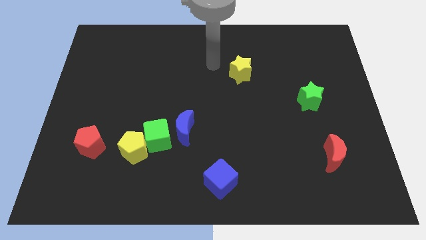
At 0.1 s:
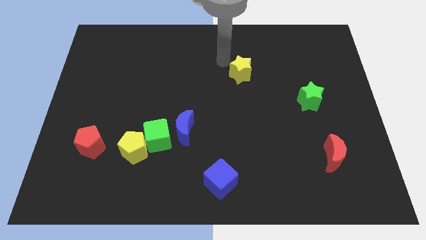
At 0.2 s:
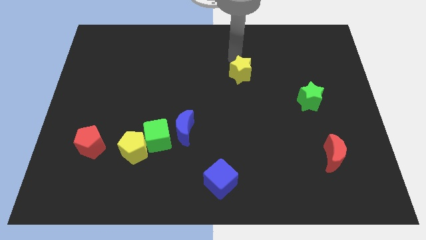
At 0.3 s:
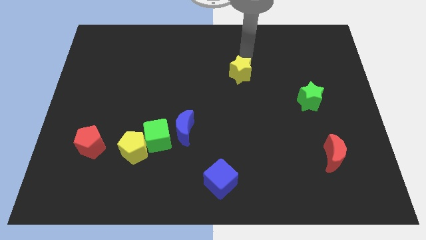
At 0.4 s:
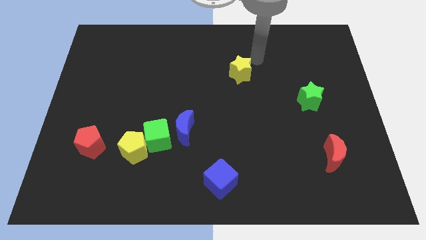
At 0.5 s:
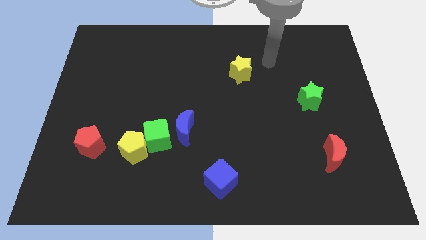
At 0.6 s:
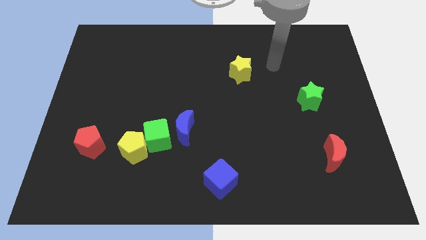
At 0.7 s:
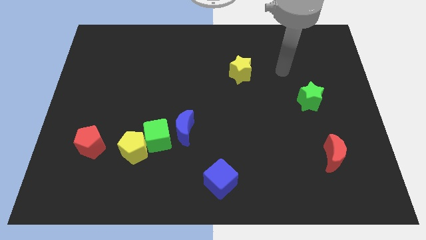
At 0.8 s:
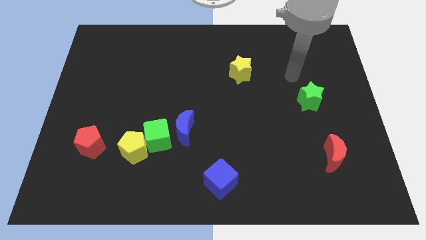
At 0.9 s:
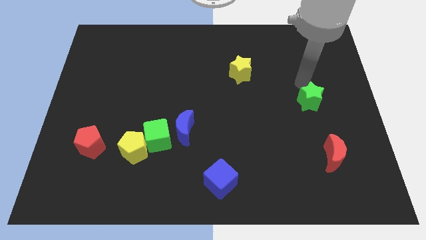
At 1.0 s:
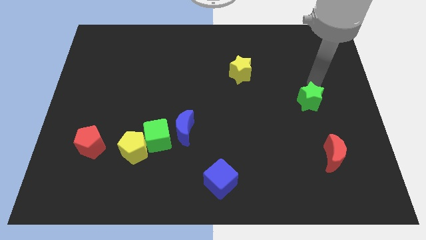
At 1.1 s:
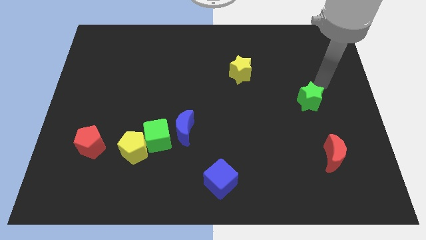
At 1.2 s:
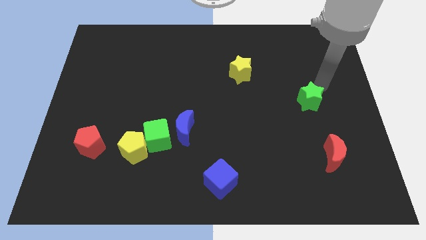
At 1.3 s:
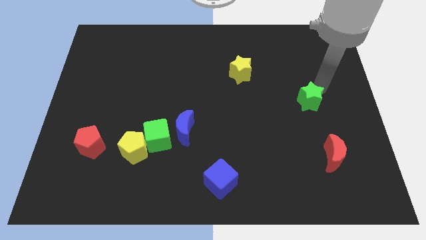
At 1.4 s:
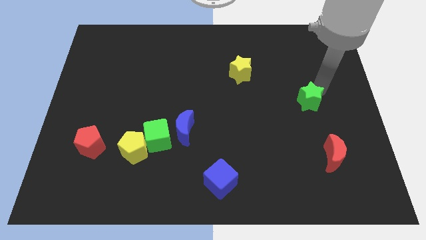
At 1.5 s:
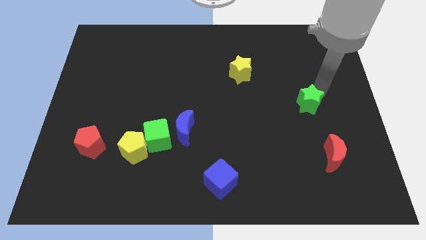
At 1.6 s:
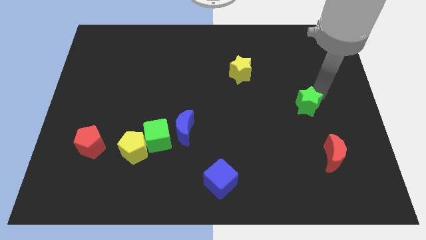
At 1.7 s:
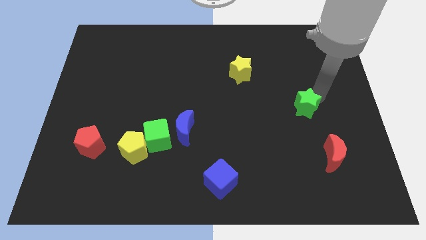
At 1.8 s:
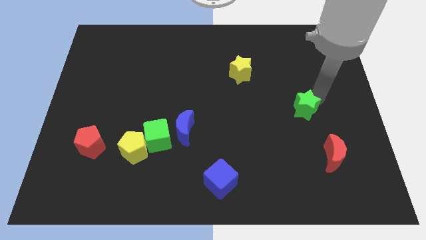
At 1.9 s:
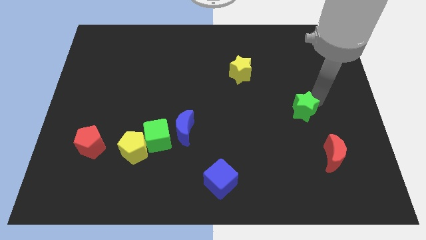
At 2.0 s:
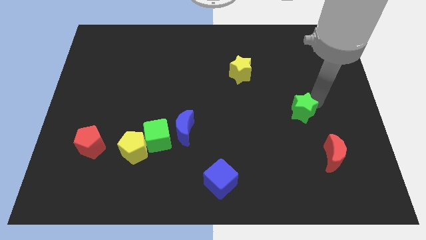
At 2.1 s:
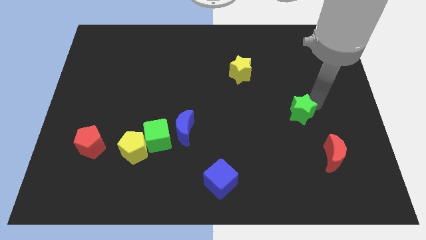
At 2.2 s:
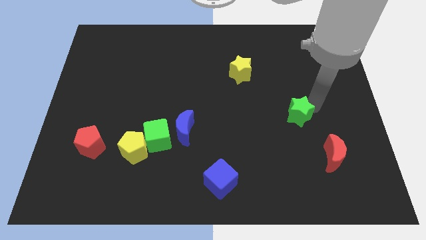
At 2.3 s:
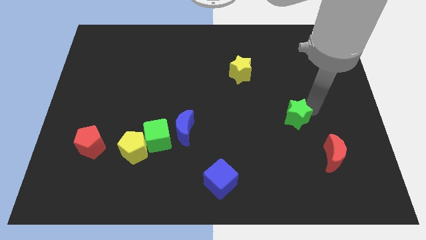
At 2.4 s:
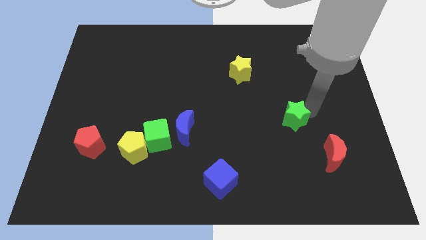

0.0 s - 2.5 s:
move the green star down and to the left diagonally a little bit

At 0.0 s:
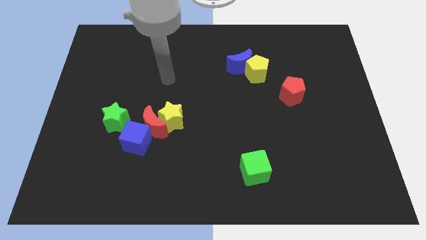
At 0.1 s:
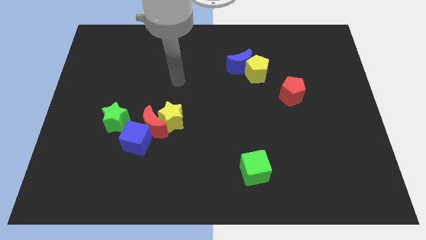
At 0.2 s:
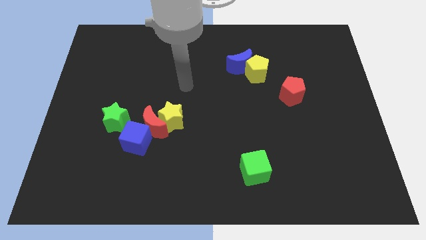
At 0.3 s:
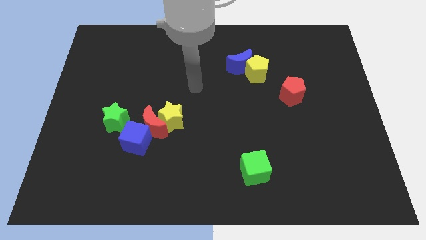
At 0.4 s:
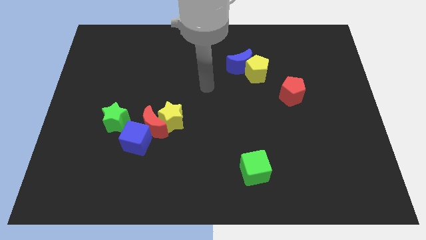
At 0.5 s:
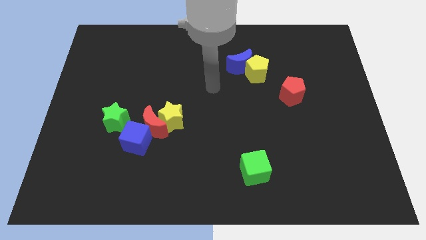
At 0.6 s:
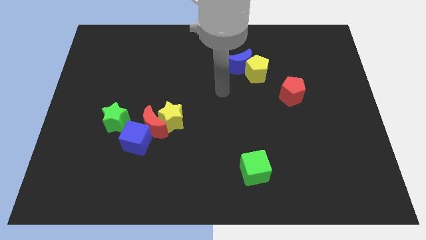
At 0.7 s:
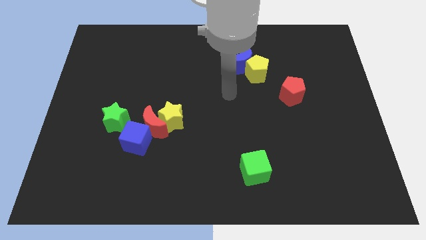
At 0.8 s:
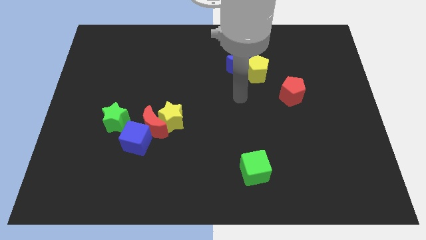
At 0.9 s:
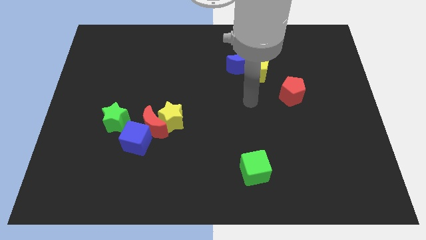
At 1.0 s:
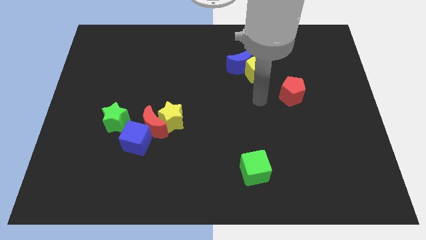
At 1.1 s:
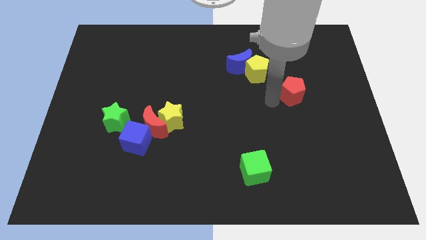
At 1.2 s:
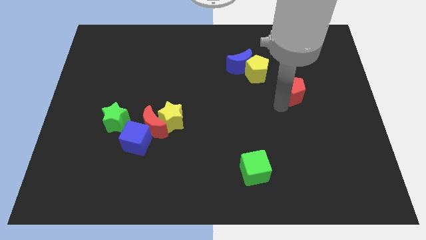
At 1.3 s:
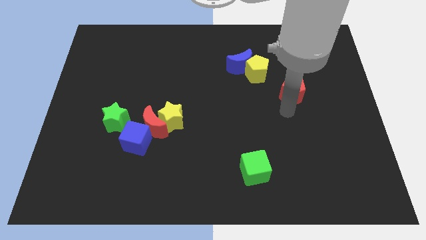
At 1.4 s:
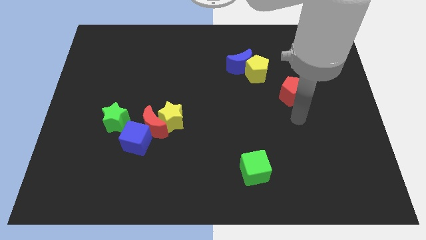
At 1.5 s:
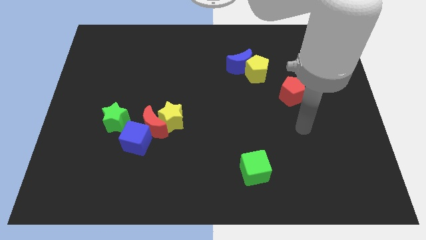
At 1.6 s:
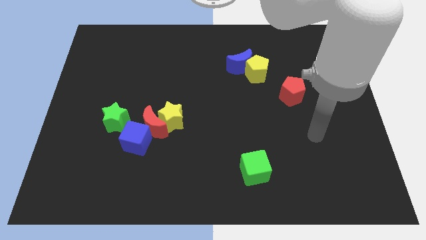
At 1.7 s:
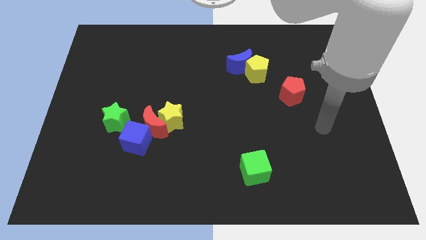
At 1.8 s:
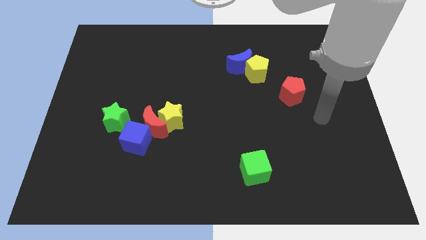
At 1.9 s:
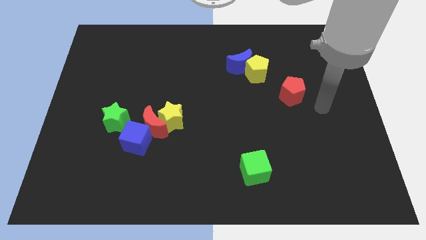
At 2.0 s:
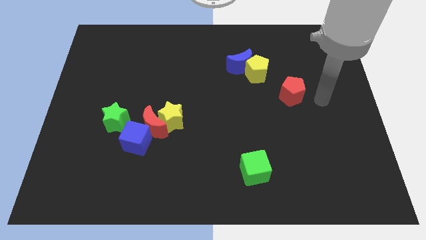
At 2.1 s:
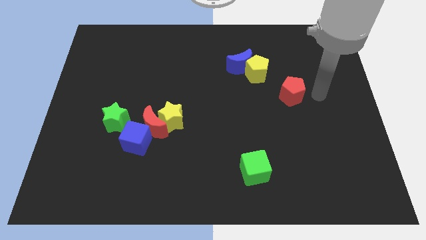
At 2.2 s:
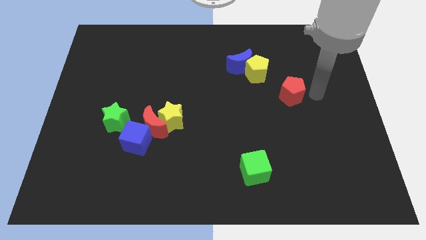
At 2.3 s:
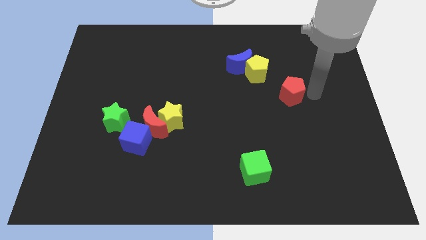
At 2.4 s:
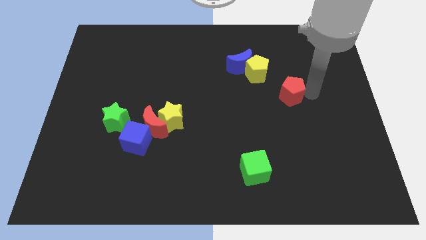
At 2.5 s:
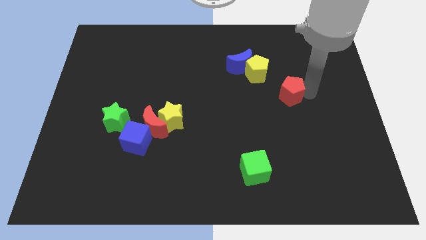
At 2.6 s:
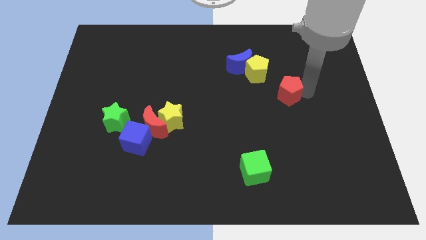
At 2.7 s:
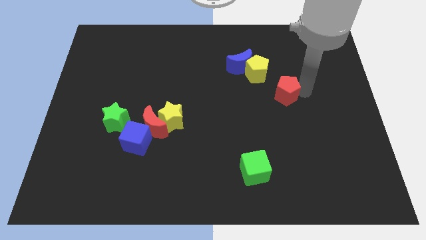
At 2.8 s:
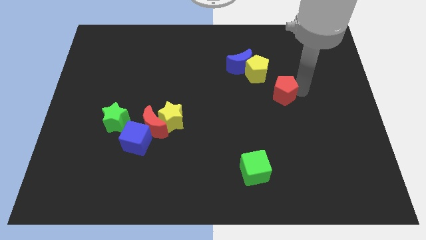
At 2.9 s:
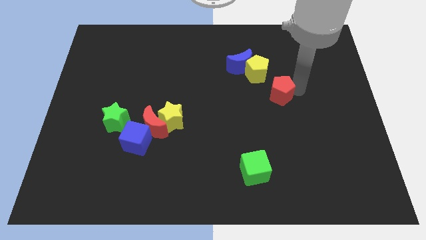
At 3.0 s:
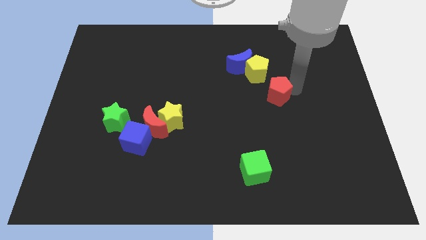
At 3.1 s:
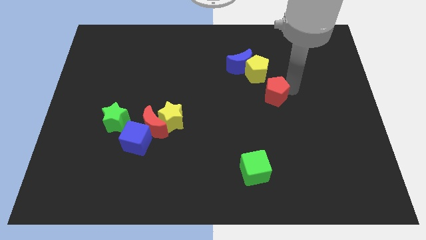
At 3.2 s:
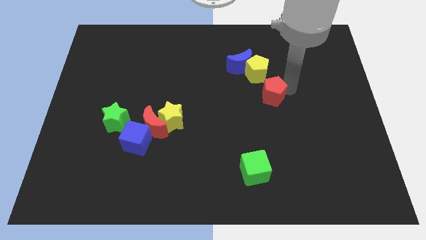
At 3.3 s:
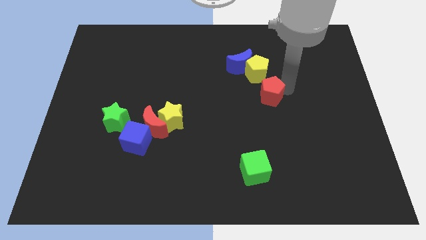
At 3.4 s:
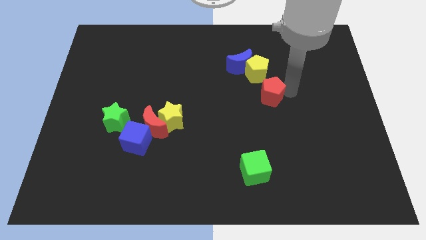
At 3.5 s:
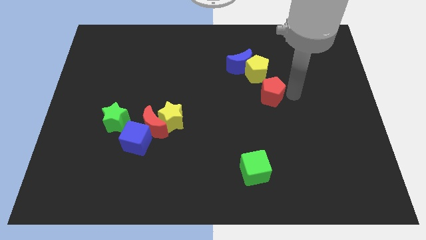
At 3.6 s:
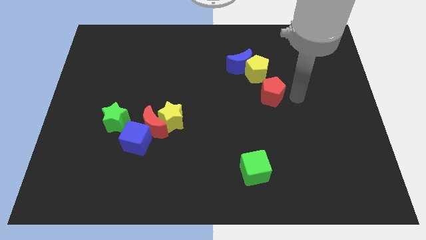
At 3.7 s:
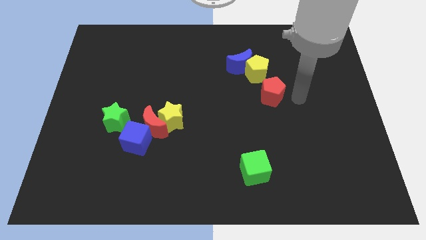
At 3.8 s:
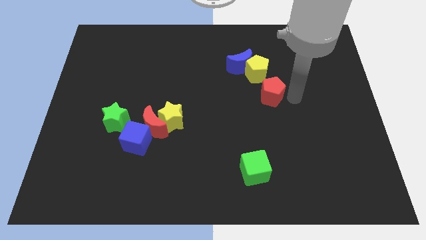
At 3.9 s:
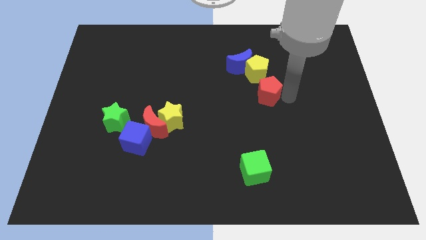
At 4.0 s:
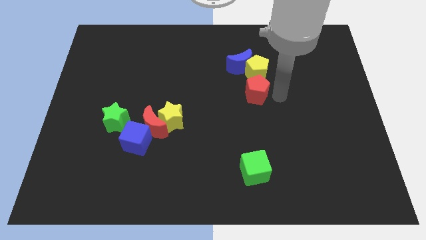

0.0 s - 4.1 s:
move the red pentagon to the left a bit

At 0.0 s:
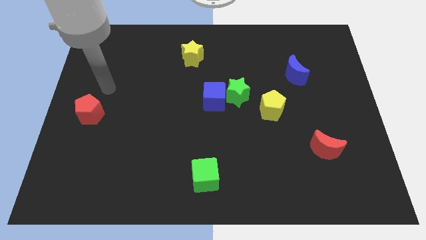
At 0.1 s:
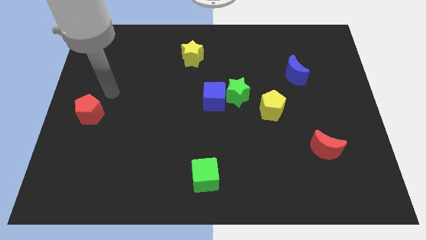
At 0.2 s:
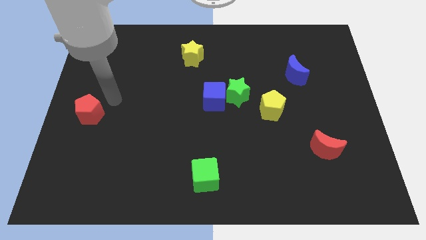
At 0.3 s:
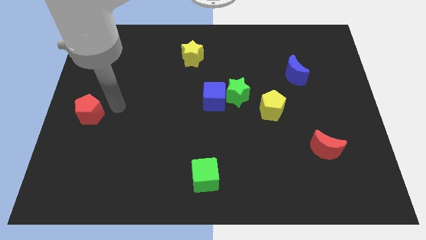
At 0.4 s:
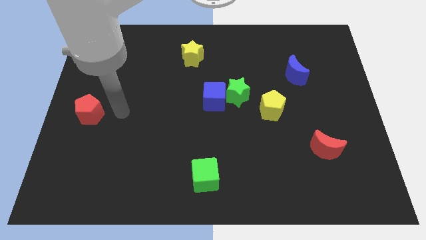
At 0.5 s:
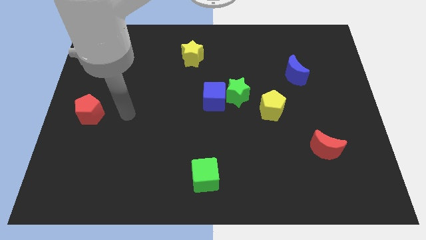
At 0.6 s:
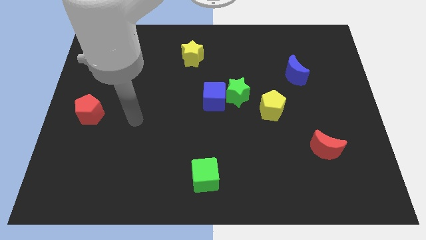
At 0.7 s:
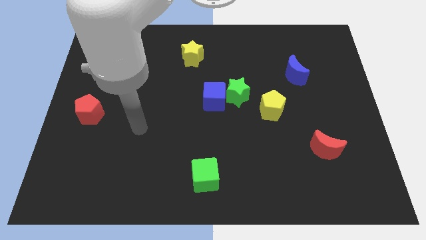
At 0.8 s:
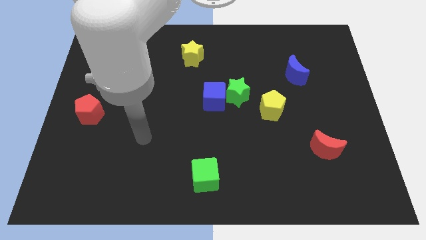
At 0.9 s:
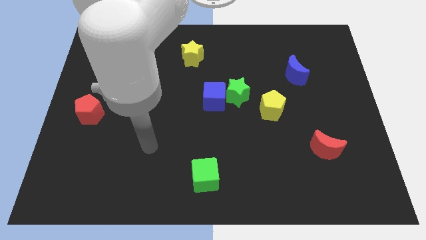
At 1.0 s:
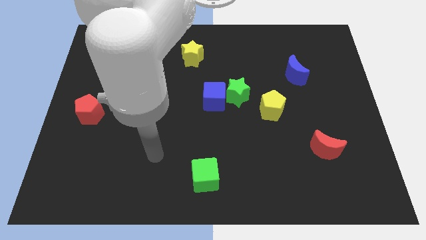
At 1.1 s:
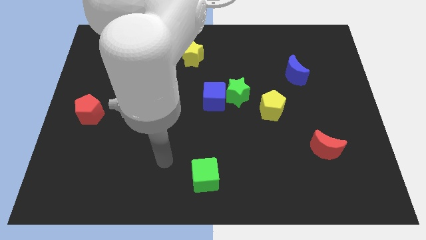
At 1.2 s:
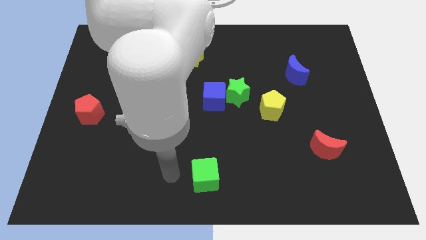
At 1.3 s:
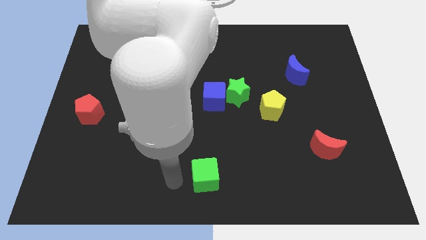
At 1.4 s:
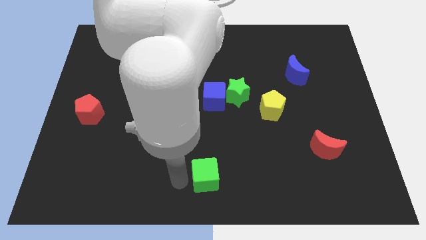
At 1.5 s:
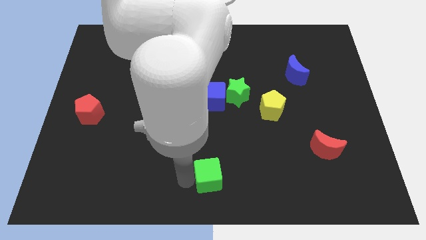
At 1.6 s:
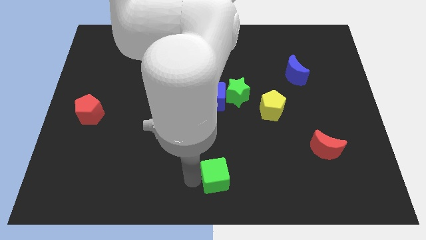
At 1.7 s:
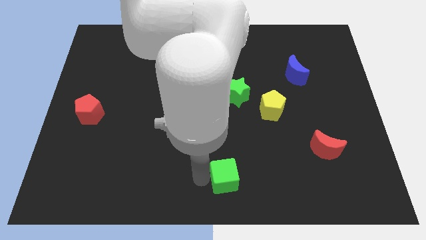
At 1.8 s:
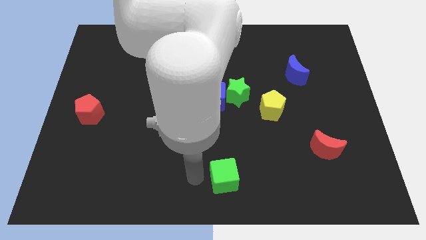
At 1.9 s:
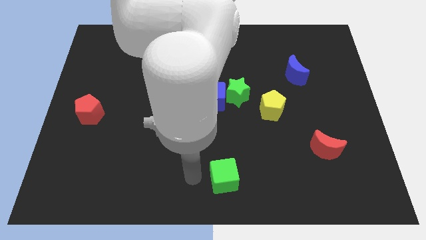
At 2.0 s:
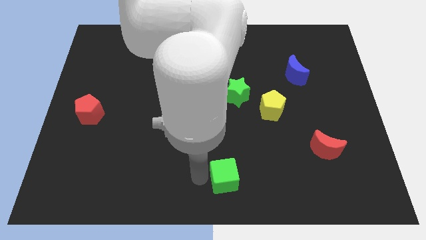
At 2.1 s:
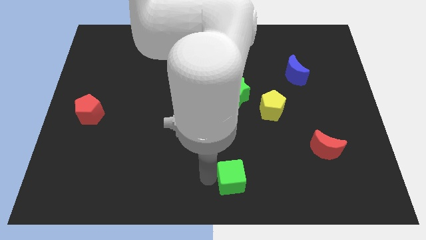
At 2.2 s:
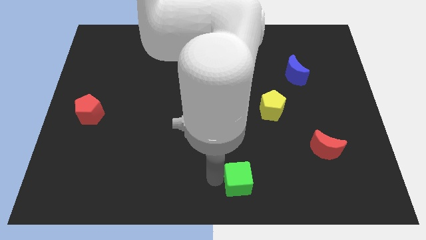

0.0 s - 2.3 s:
push the green cube to the right a bit
